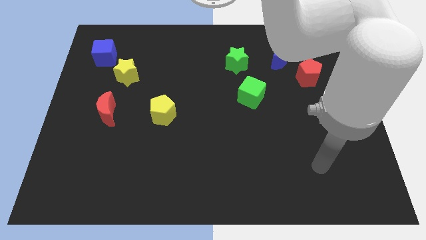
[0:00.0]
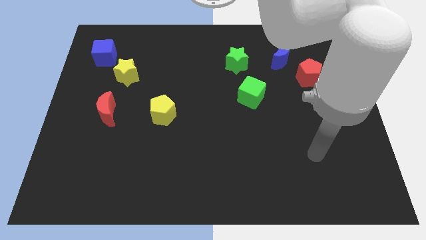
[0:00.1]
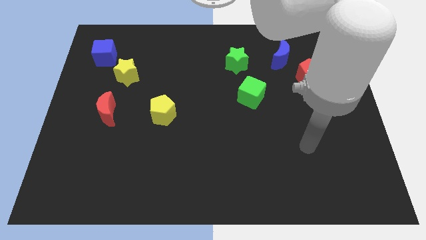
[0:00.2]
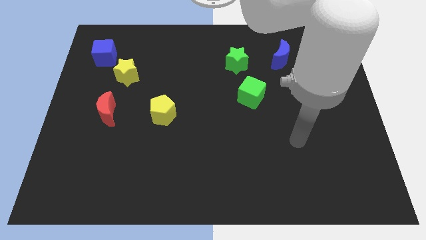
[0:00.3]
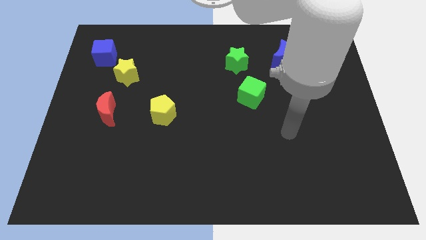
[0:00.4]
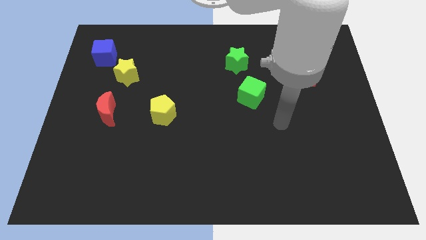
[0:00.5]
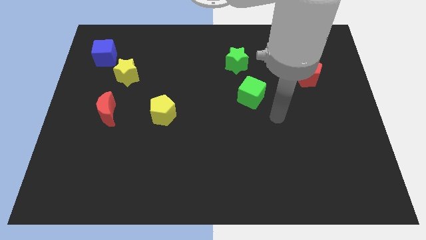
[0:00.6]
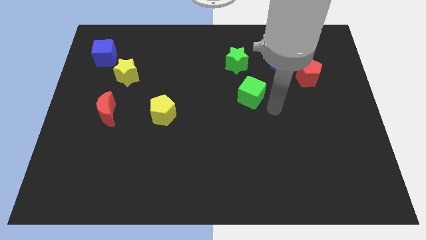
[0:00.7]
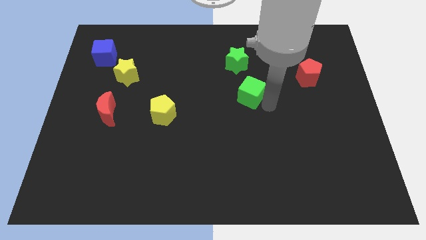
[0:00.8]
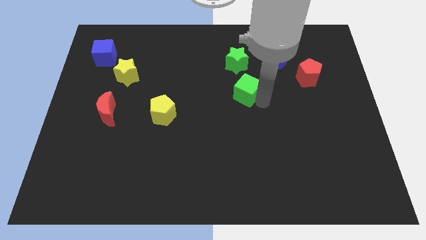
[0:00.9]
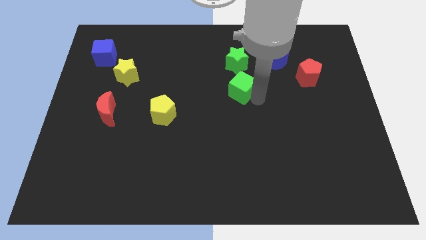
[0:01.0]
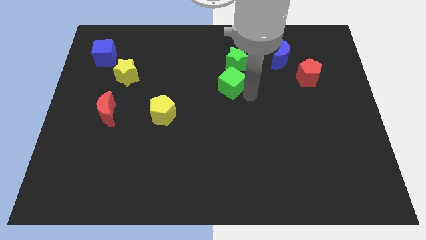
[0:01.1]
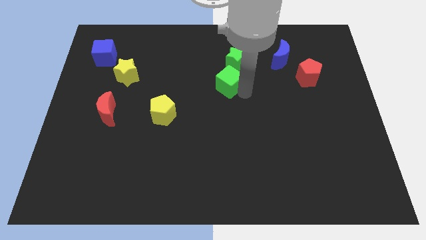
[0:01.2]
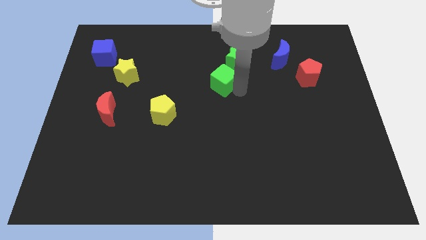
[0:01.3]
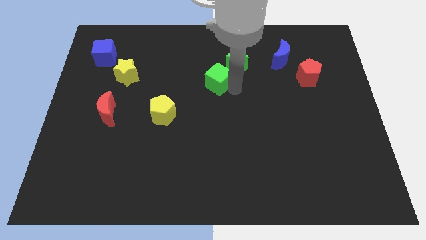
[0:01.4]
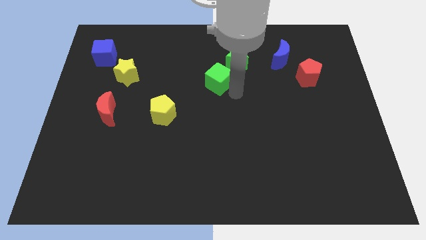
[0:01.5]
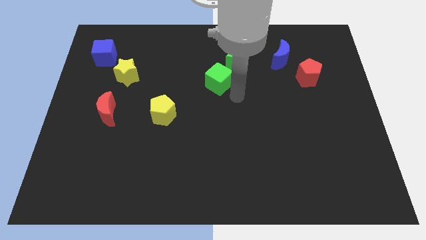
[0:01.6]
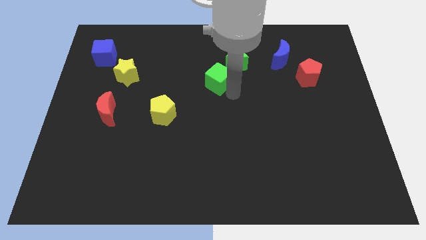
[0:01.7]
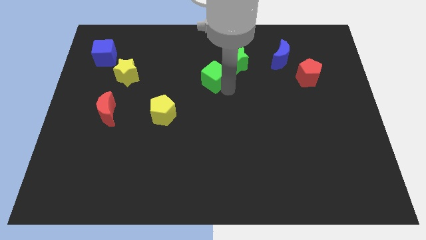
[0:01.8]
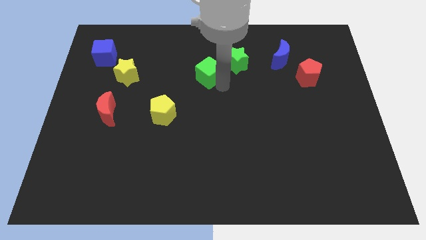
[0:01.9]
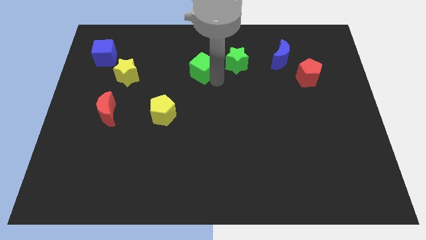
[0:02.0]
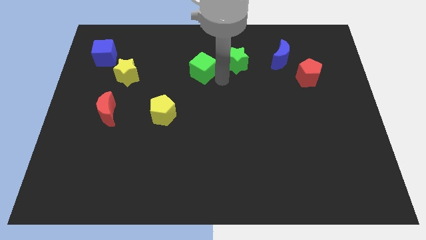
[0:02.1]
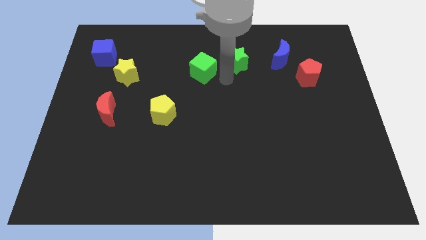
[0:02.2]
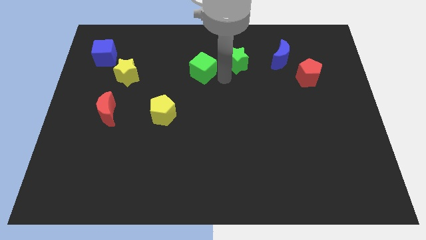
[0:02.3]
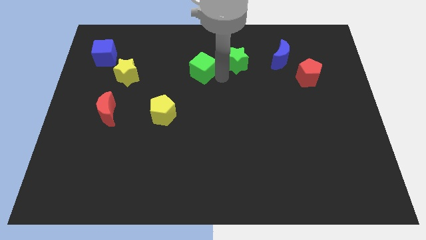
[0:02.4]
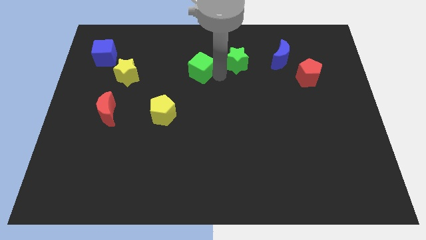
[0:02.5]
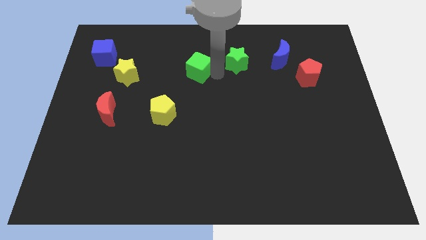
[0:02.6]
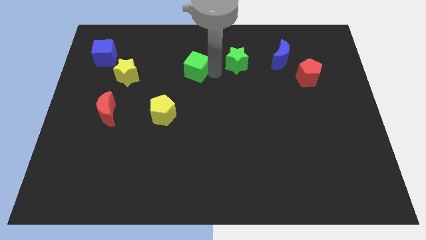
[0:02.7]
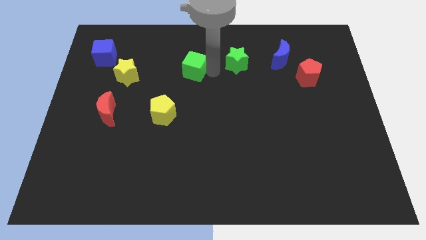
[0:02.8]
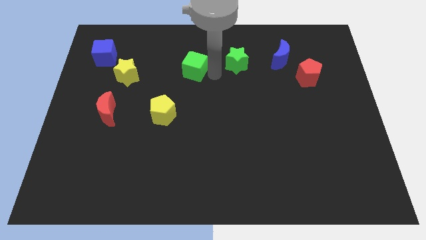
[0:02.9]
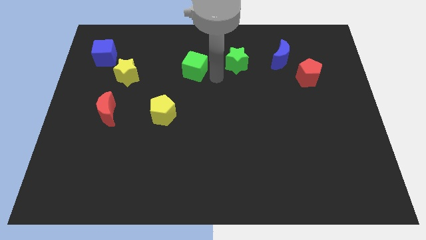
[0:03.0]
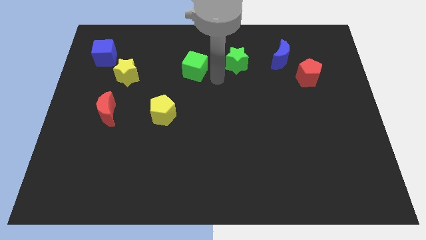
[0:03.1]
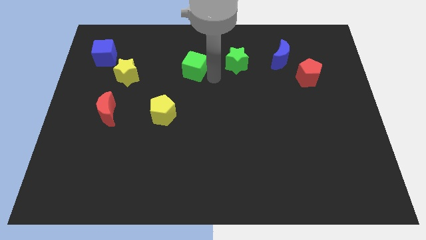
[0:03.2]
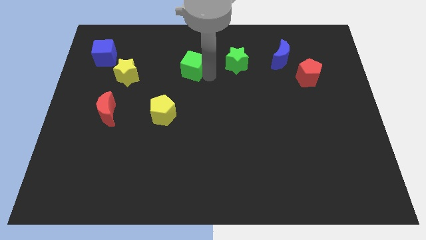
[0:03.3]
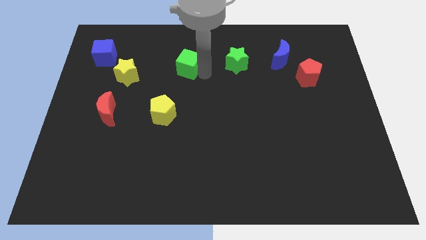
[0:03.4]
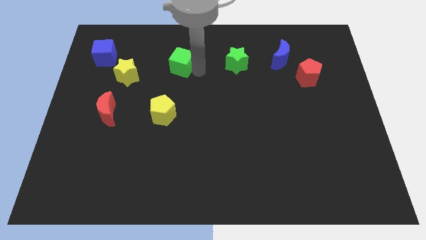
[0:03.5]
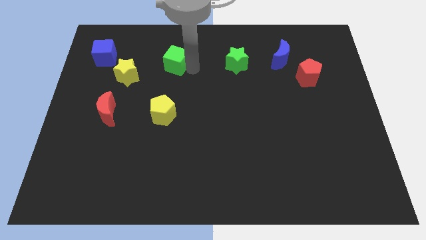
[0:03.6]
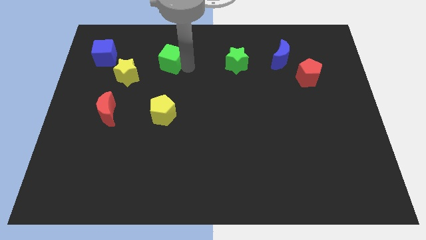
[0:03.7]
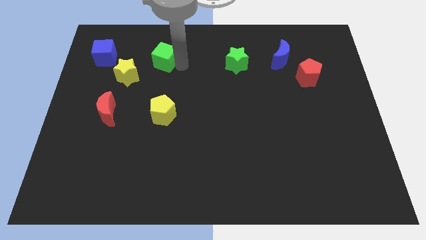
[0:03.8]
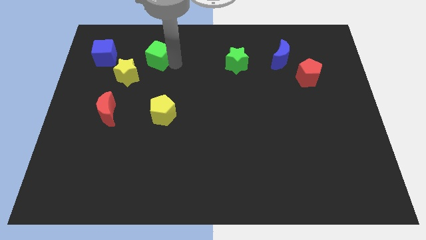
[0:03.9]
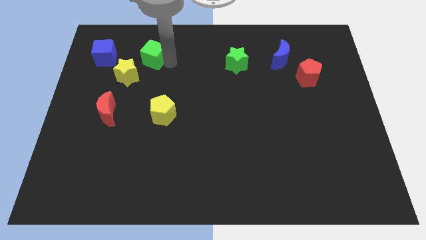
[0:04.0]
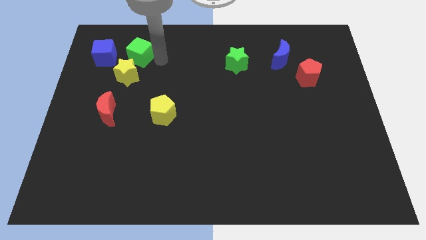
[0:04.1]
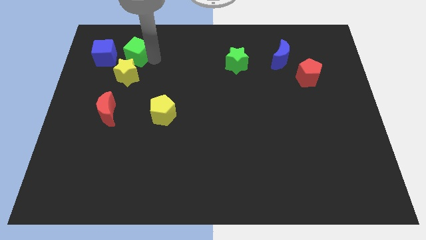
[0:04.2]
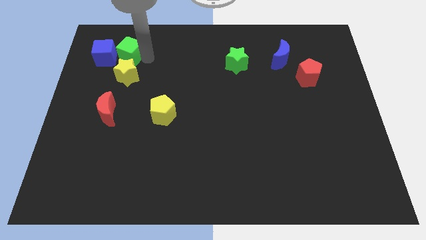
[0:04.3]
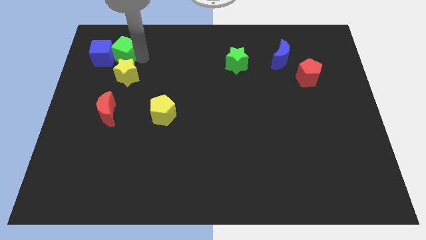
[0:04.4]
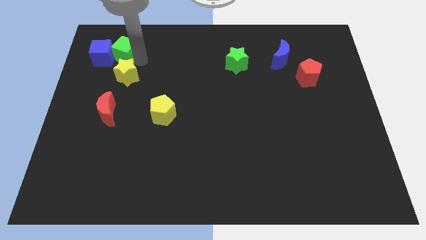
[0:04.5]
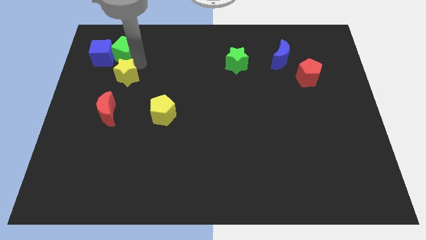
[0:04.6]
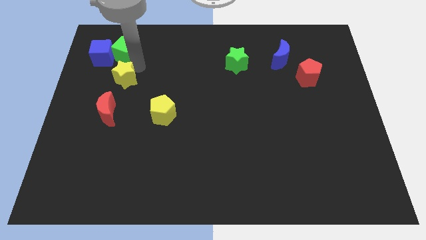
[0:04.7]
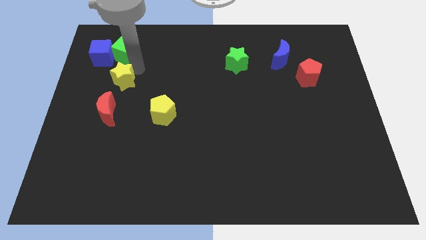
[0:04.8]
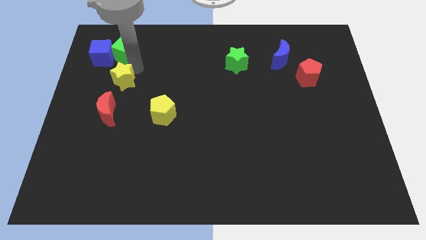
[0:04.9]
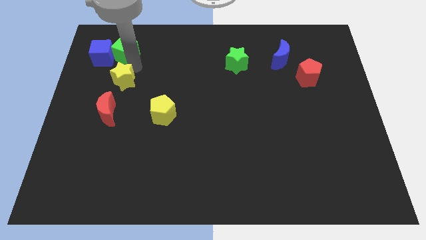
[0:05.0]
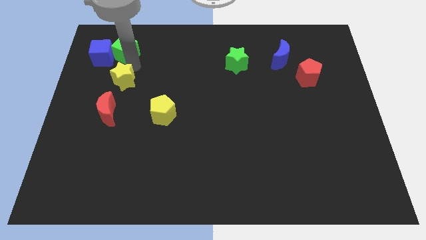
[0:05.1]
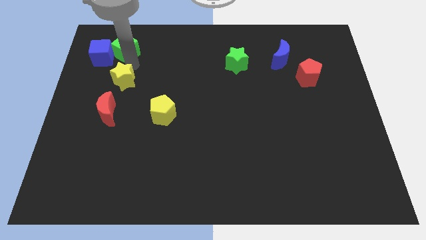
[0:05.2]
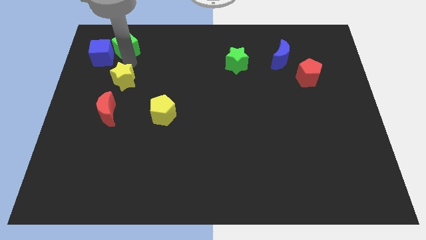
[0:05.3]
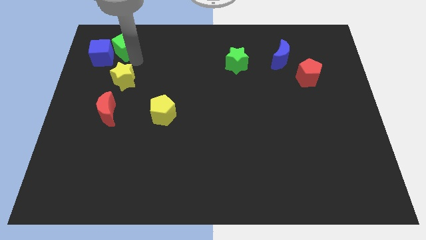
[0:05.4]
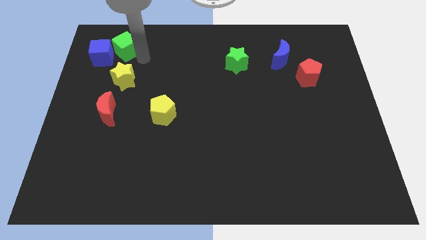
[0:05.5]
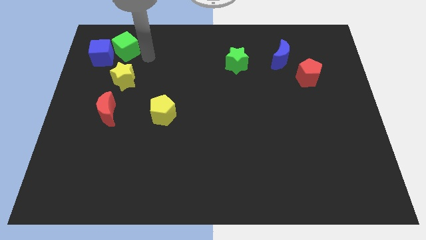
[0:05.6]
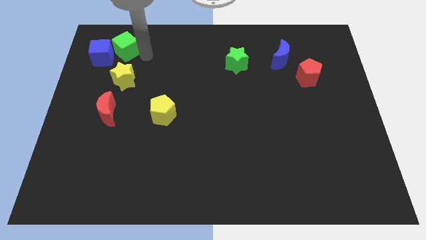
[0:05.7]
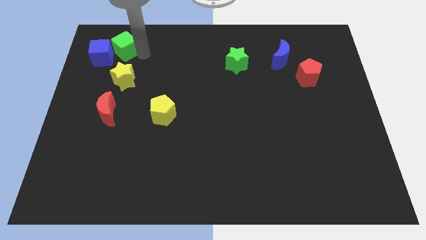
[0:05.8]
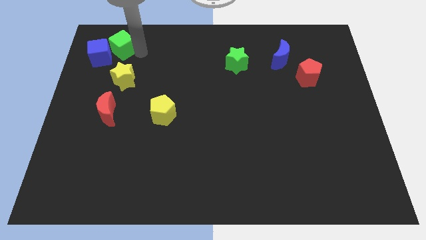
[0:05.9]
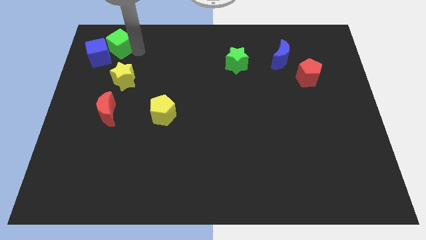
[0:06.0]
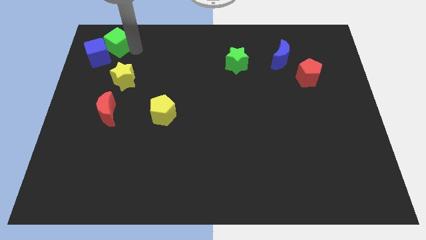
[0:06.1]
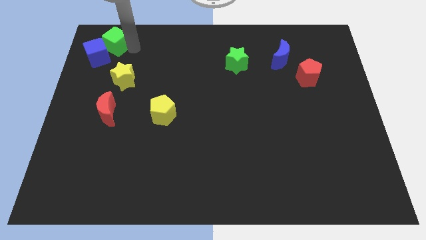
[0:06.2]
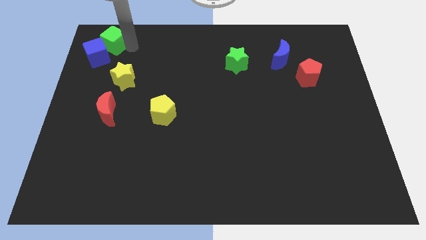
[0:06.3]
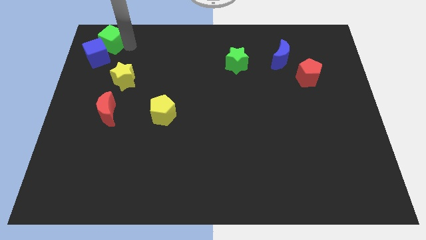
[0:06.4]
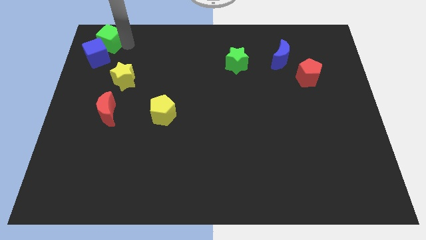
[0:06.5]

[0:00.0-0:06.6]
put the green cube to the top left
